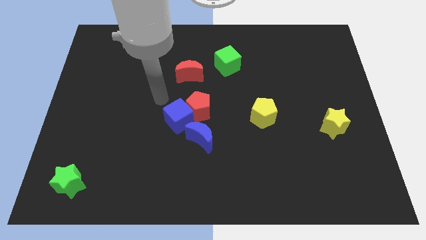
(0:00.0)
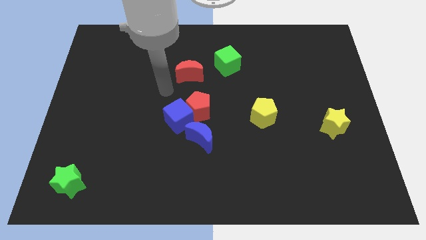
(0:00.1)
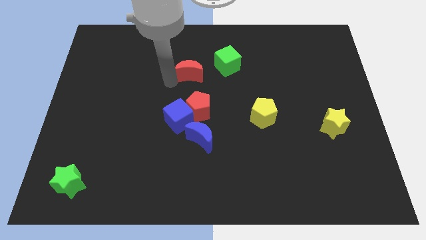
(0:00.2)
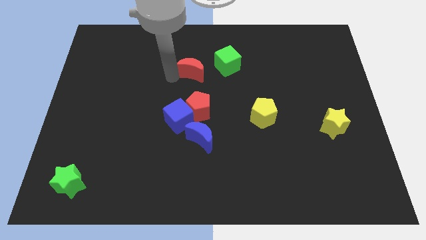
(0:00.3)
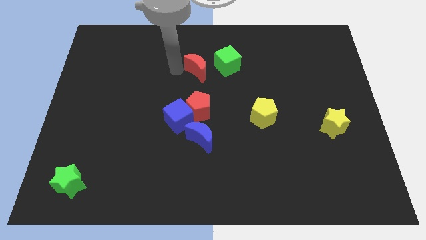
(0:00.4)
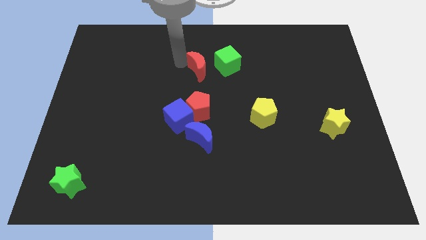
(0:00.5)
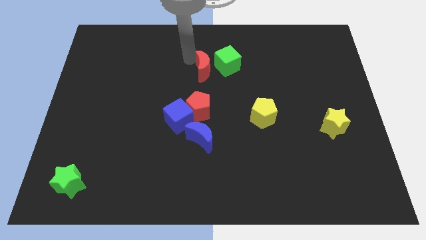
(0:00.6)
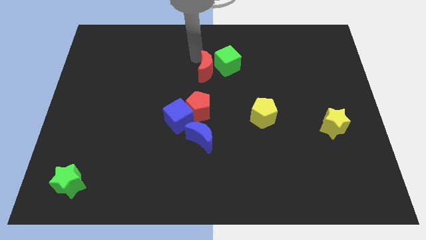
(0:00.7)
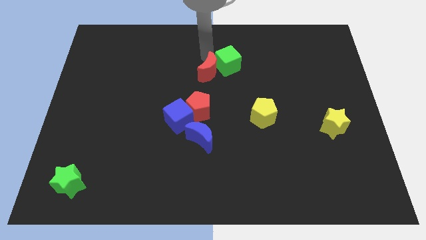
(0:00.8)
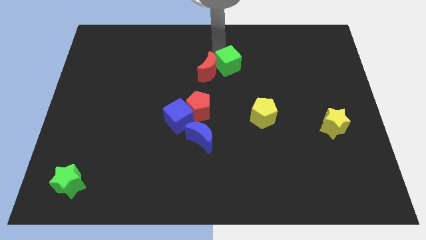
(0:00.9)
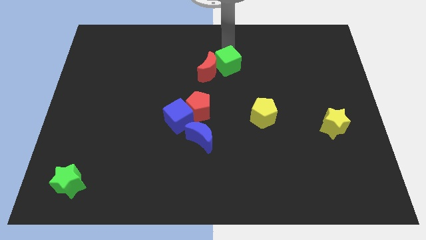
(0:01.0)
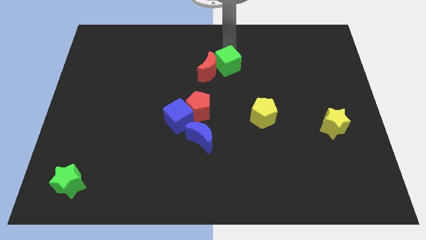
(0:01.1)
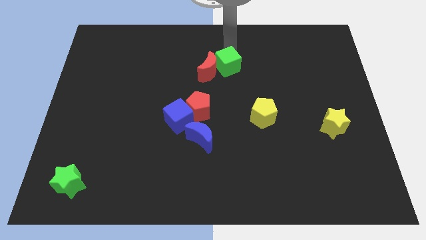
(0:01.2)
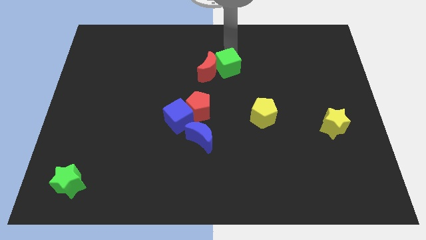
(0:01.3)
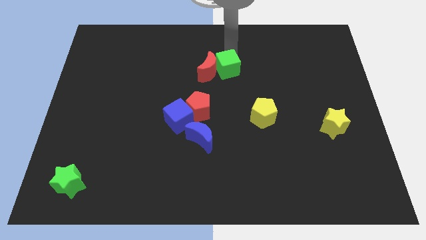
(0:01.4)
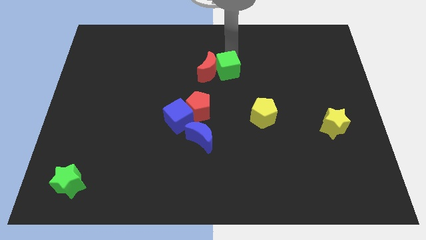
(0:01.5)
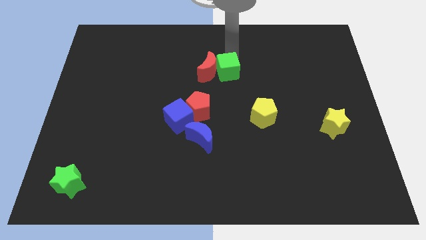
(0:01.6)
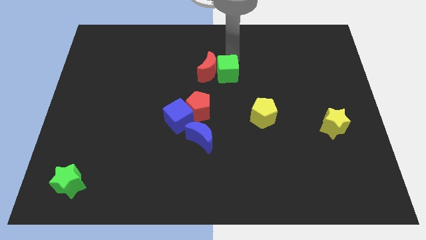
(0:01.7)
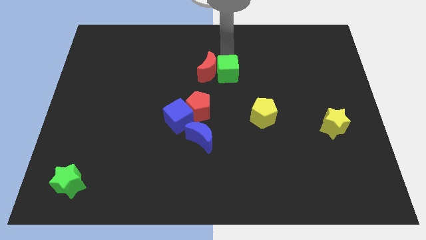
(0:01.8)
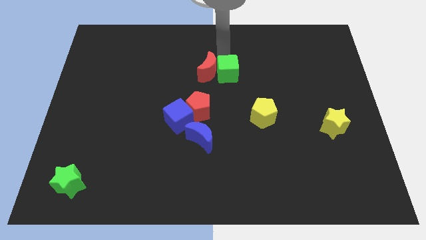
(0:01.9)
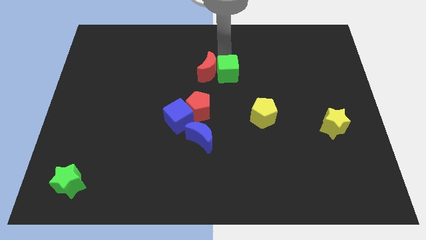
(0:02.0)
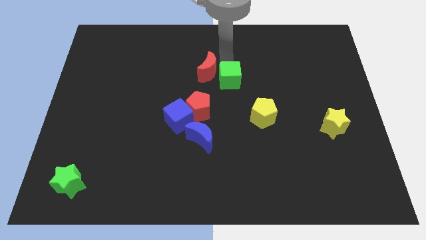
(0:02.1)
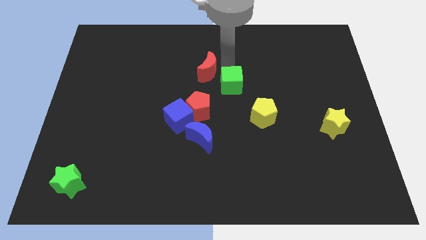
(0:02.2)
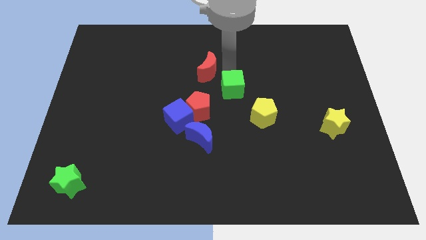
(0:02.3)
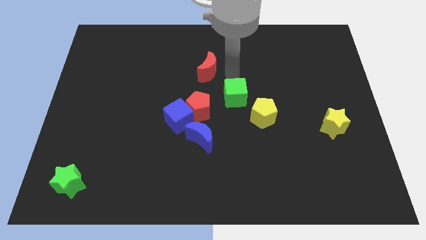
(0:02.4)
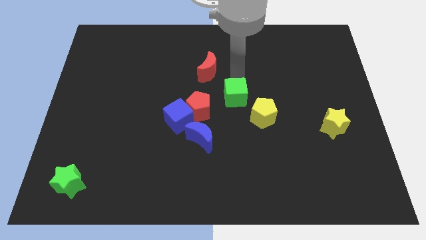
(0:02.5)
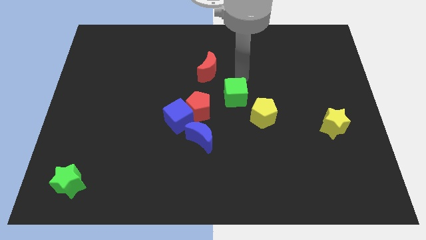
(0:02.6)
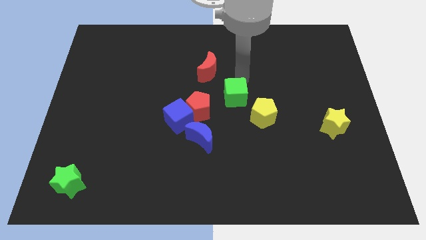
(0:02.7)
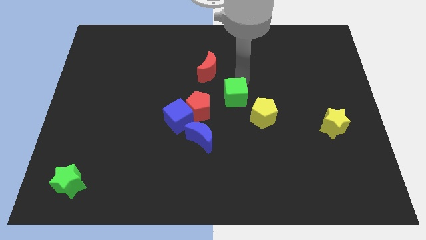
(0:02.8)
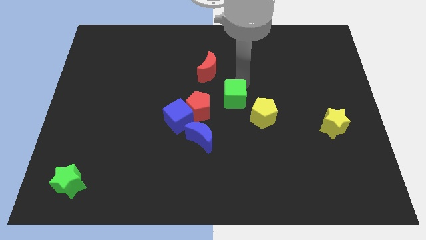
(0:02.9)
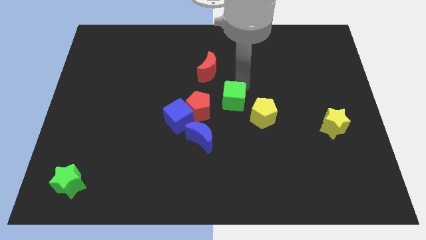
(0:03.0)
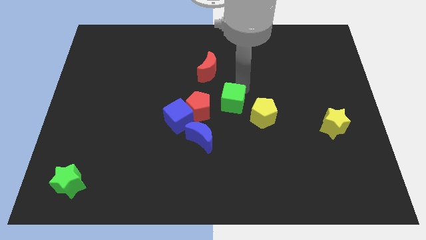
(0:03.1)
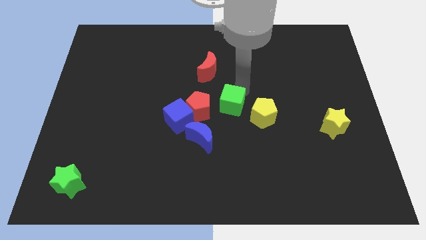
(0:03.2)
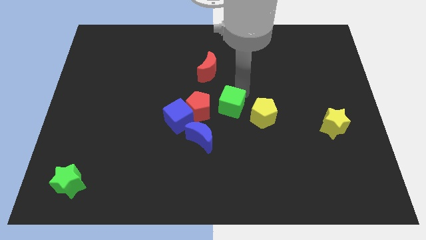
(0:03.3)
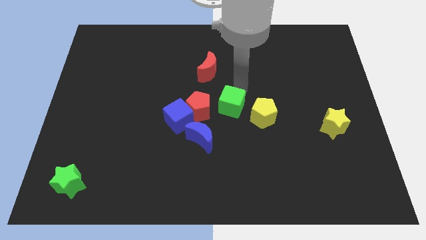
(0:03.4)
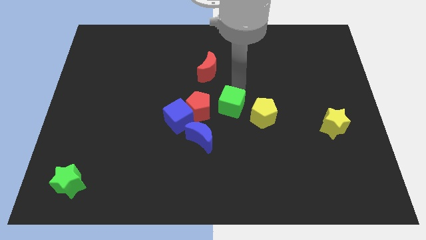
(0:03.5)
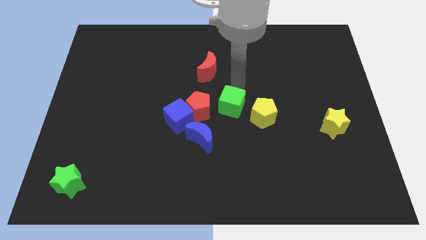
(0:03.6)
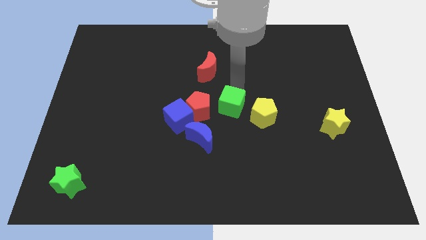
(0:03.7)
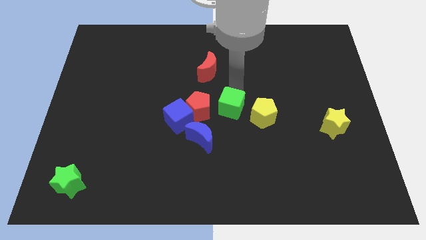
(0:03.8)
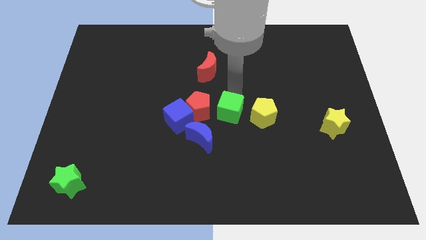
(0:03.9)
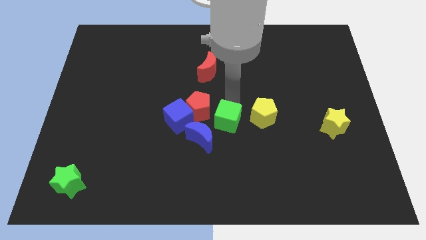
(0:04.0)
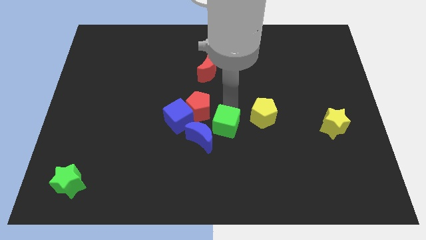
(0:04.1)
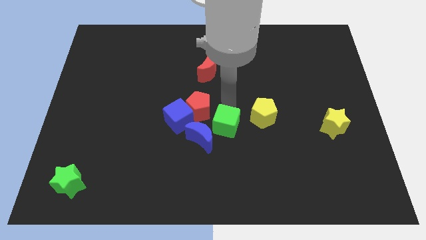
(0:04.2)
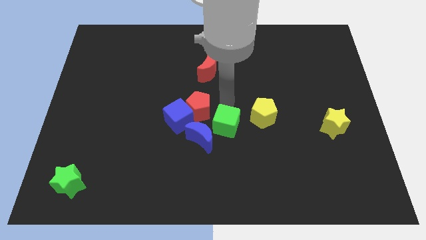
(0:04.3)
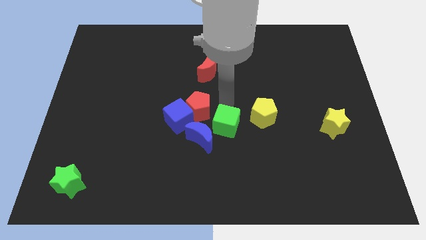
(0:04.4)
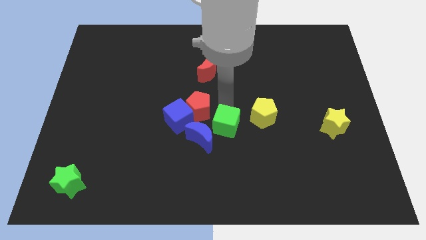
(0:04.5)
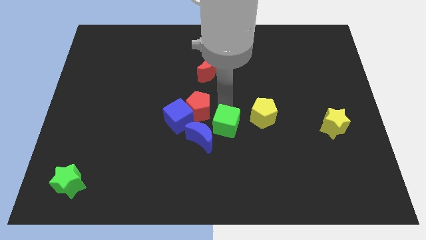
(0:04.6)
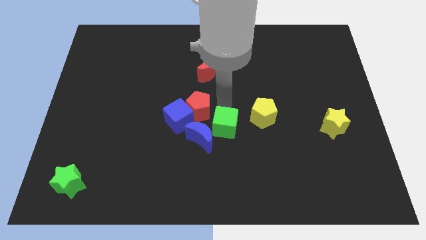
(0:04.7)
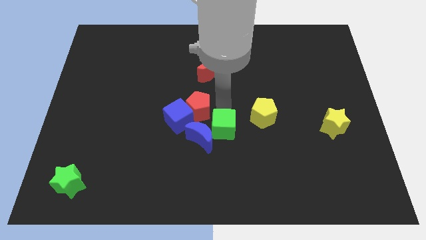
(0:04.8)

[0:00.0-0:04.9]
slide the green cube downwards

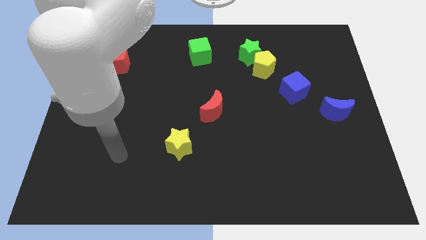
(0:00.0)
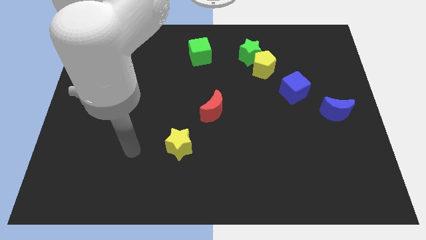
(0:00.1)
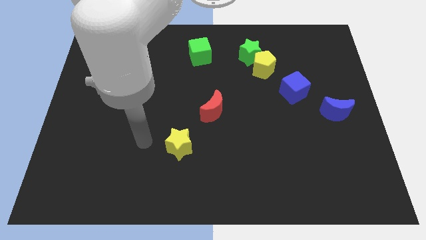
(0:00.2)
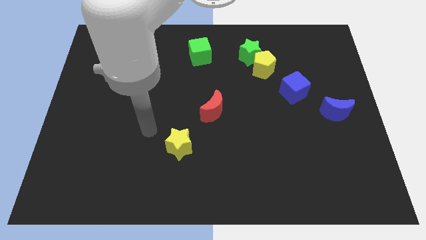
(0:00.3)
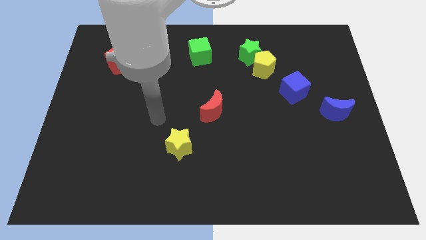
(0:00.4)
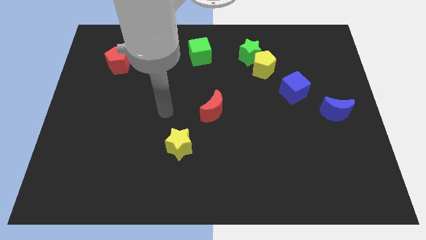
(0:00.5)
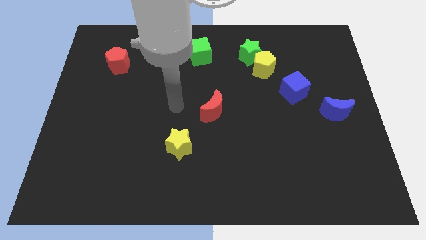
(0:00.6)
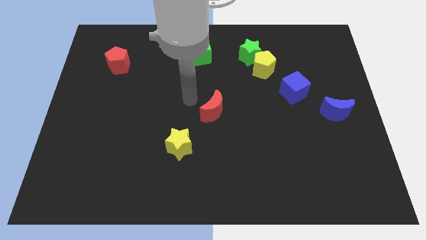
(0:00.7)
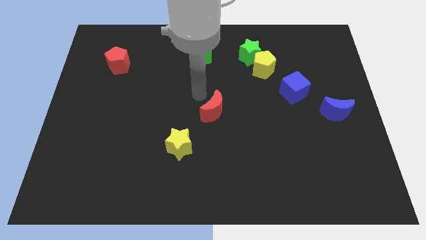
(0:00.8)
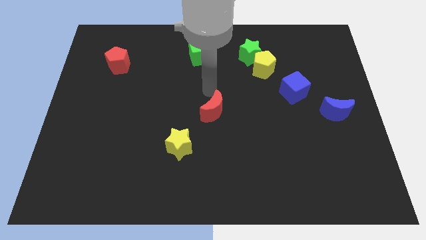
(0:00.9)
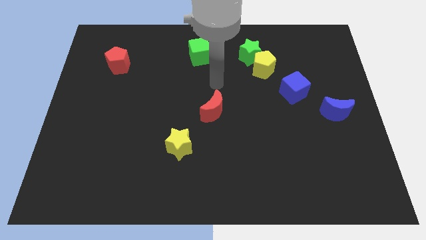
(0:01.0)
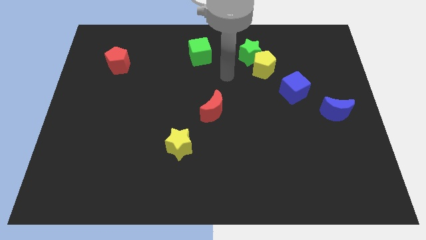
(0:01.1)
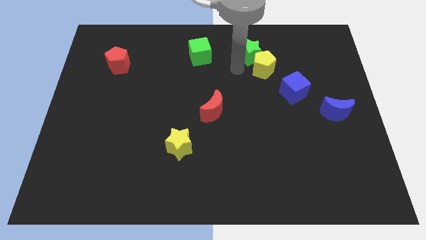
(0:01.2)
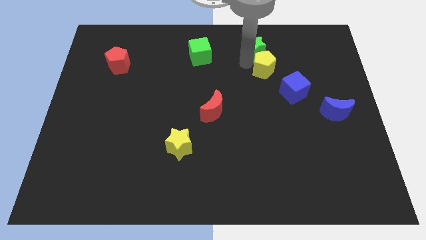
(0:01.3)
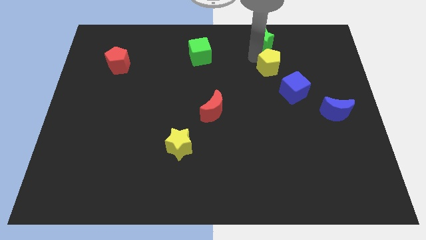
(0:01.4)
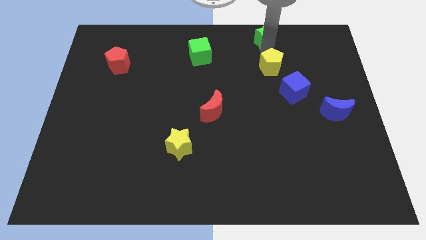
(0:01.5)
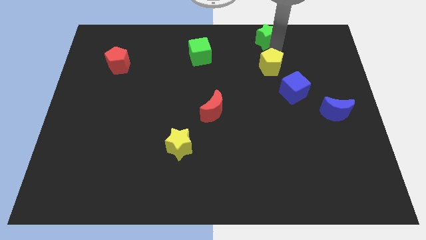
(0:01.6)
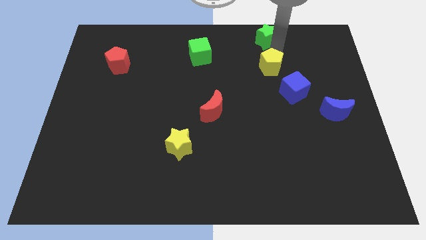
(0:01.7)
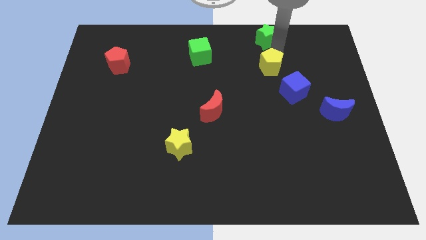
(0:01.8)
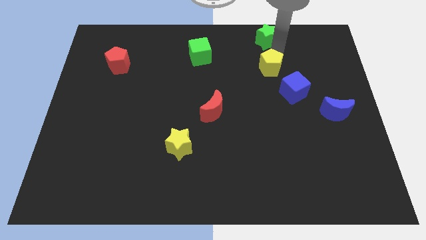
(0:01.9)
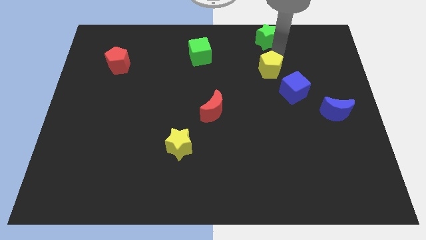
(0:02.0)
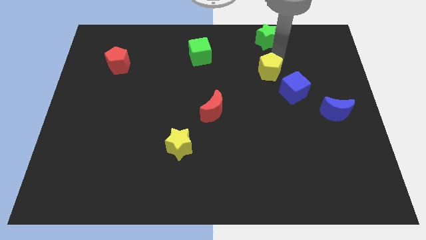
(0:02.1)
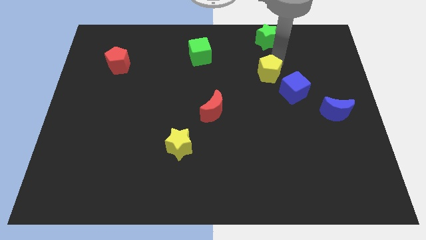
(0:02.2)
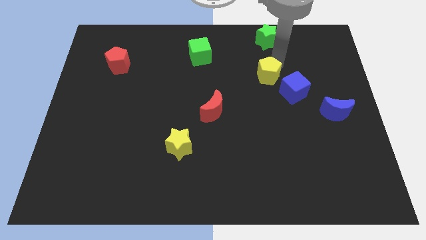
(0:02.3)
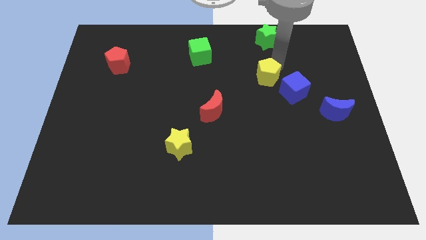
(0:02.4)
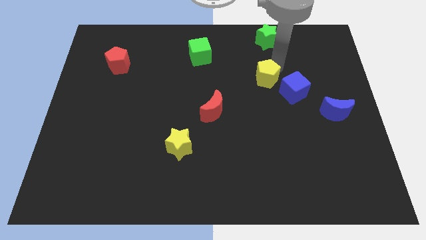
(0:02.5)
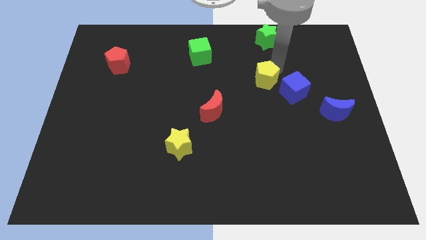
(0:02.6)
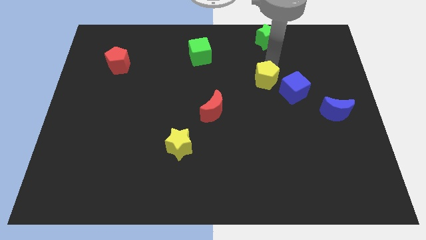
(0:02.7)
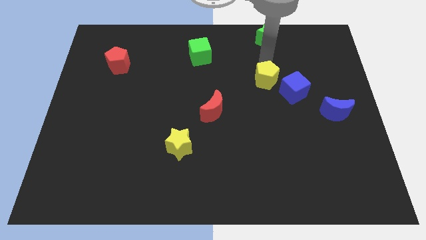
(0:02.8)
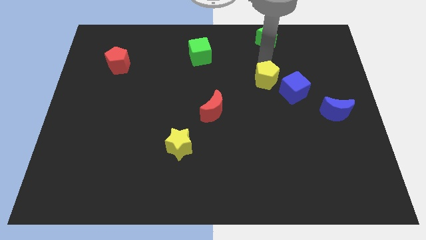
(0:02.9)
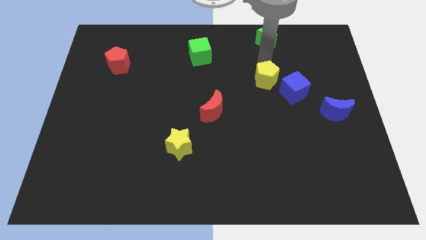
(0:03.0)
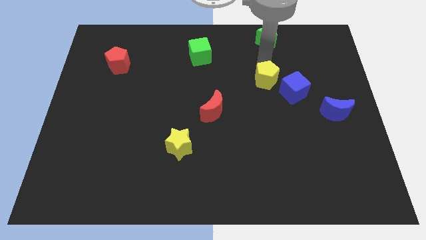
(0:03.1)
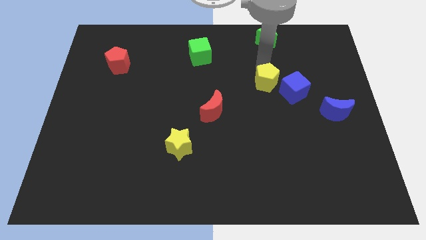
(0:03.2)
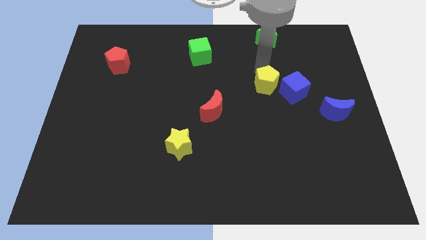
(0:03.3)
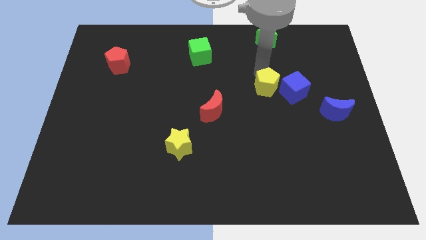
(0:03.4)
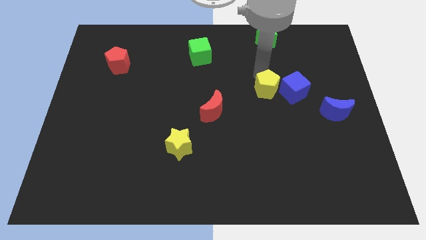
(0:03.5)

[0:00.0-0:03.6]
slightly slide the yellow pentagon downwards
